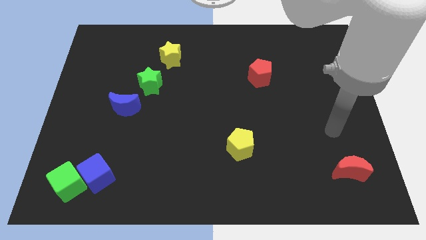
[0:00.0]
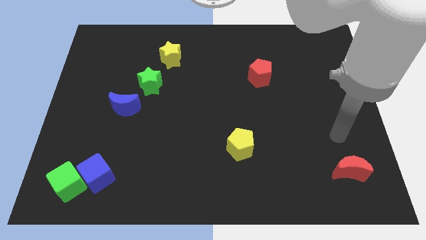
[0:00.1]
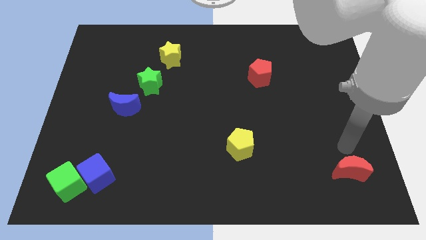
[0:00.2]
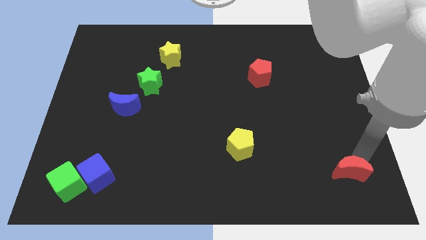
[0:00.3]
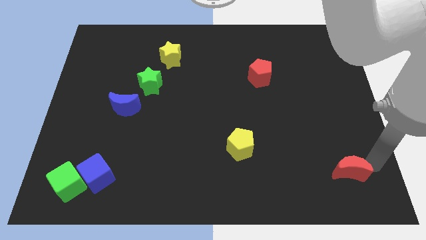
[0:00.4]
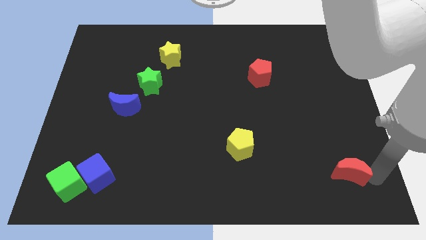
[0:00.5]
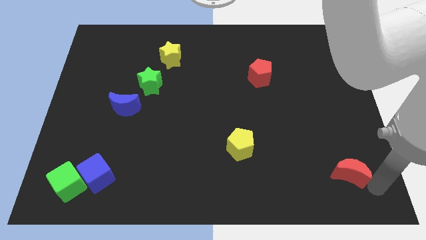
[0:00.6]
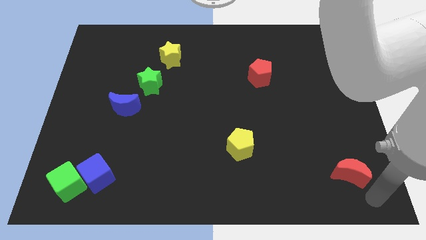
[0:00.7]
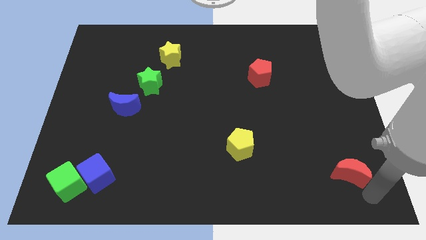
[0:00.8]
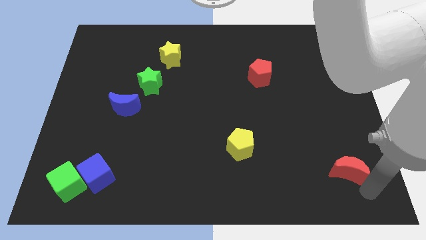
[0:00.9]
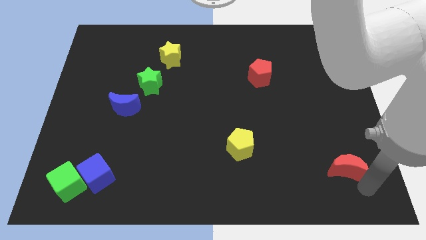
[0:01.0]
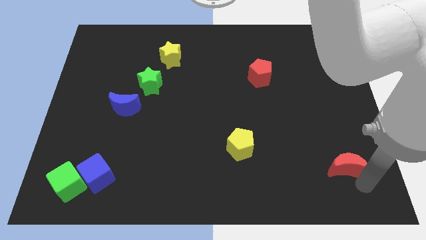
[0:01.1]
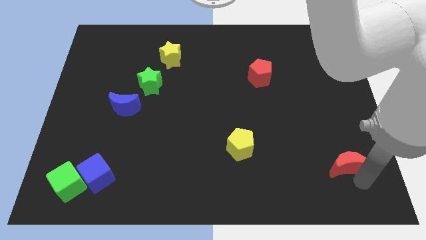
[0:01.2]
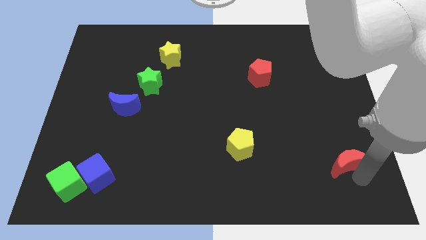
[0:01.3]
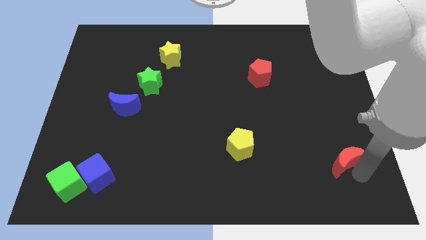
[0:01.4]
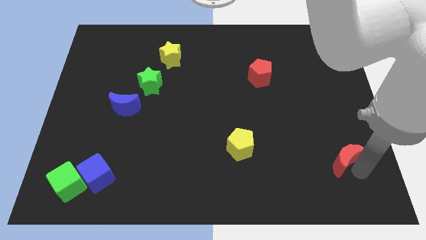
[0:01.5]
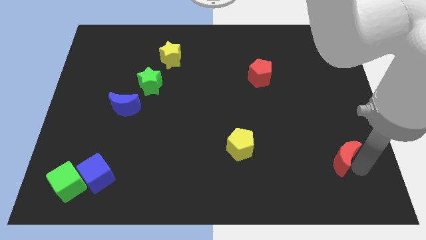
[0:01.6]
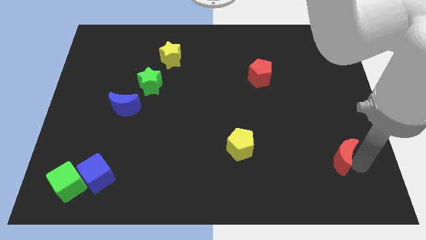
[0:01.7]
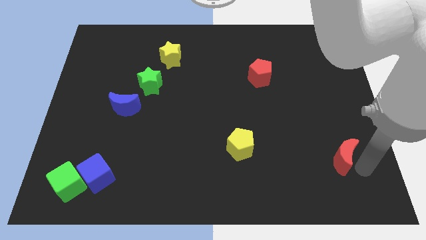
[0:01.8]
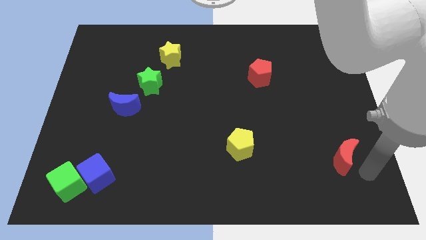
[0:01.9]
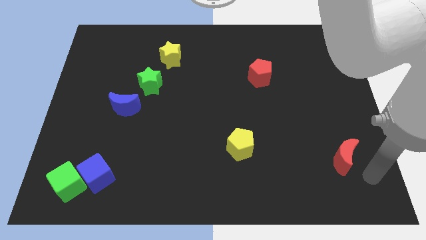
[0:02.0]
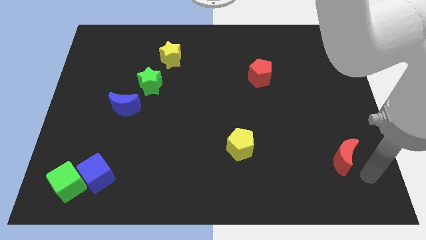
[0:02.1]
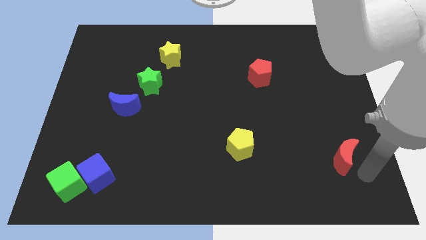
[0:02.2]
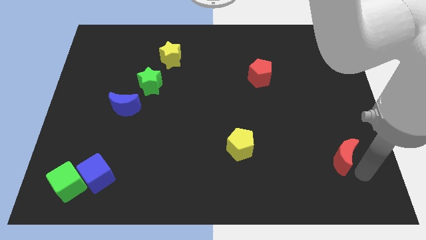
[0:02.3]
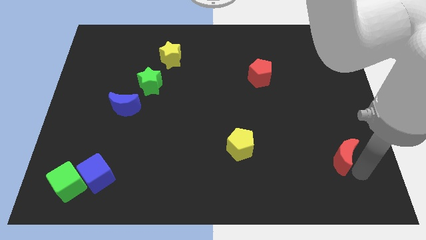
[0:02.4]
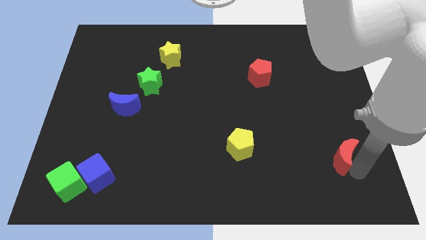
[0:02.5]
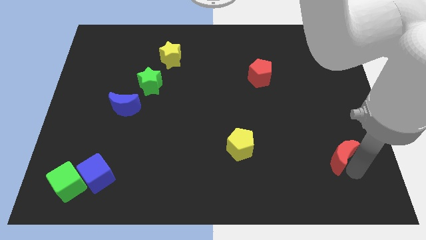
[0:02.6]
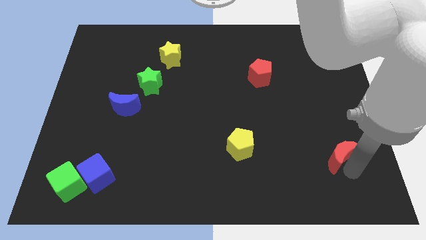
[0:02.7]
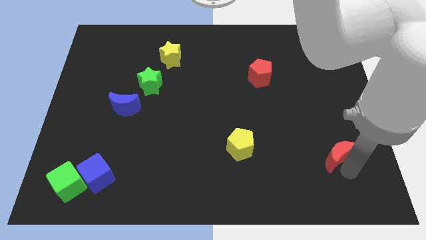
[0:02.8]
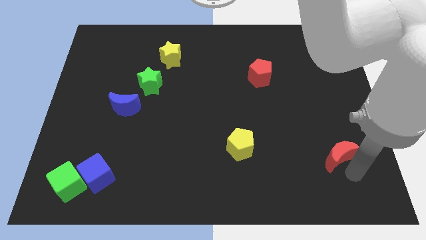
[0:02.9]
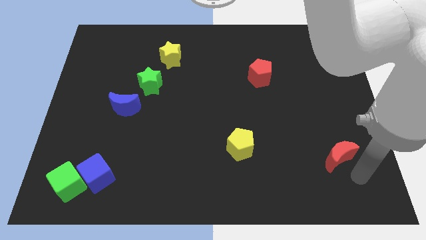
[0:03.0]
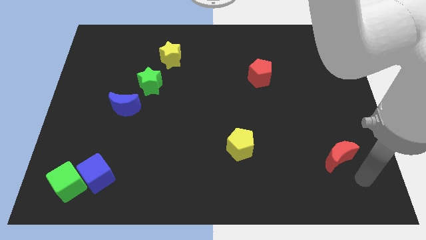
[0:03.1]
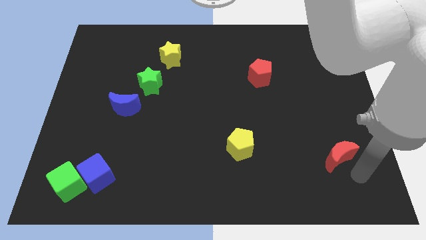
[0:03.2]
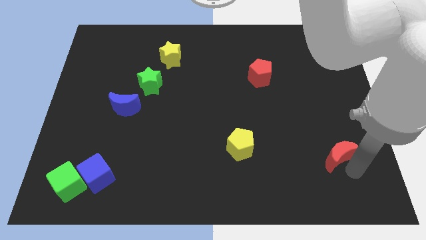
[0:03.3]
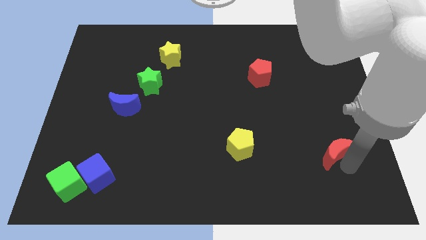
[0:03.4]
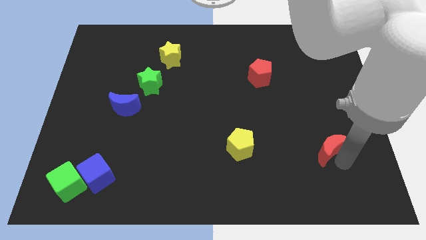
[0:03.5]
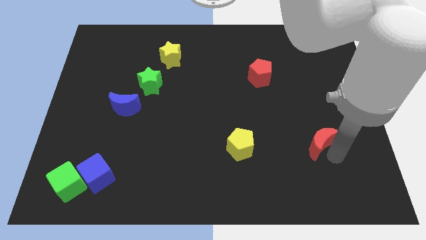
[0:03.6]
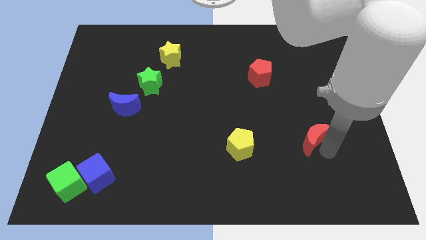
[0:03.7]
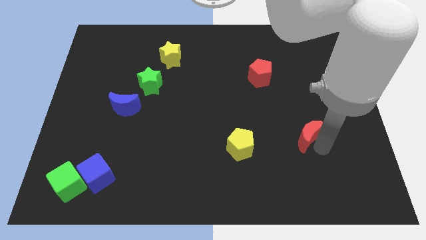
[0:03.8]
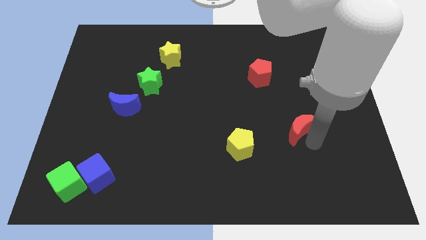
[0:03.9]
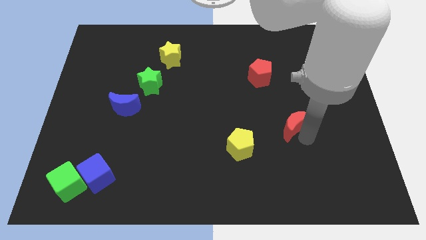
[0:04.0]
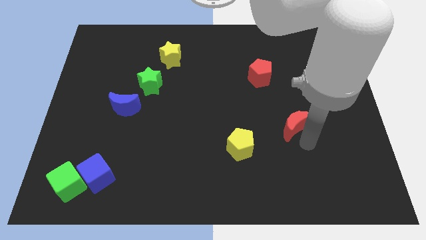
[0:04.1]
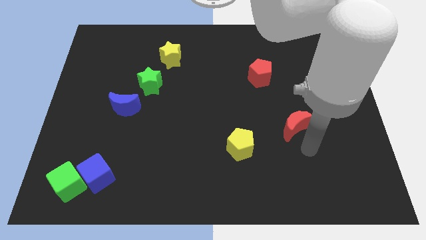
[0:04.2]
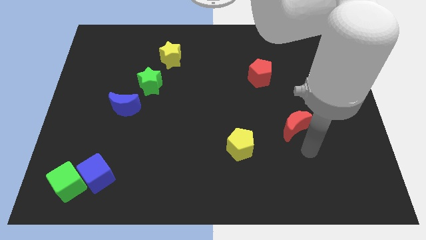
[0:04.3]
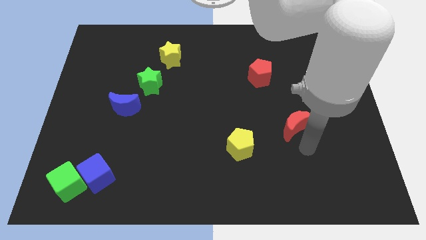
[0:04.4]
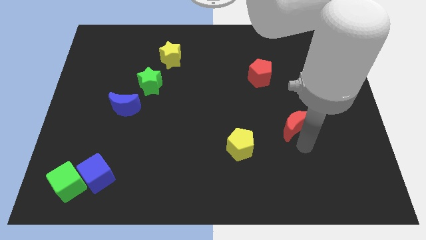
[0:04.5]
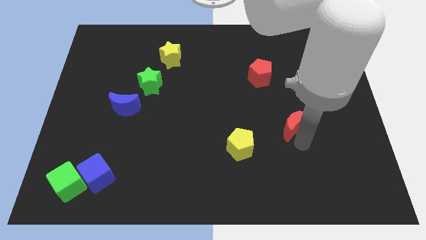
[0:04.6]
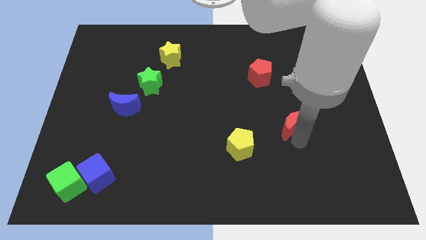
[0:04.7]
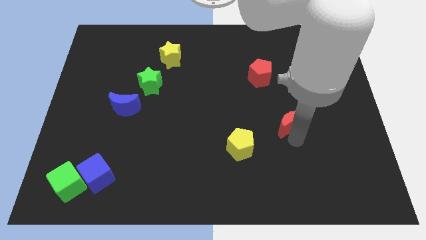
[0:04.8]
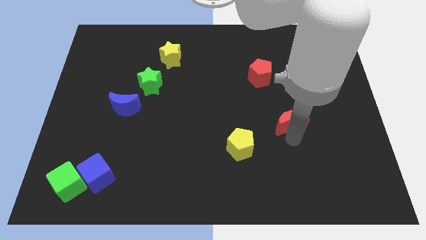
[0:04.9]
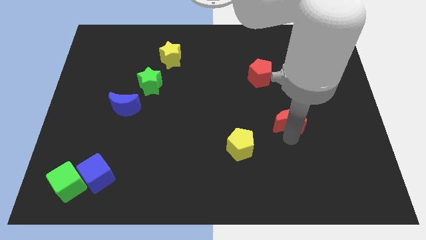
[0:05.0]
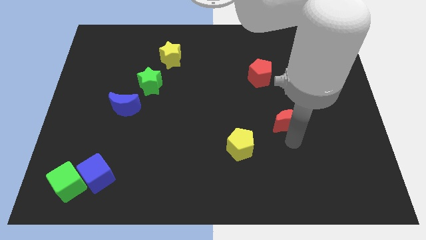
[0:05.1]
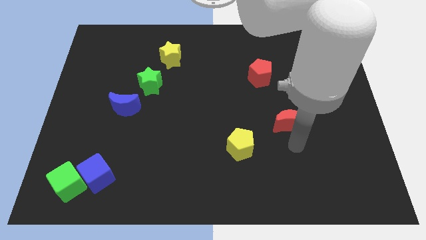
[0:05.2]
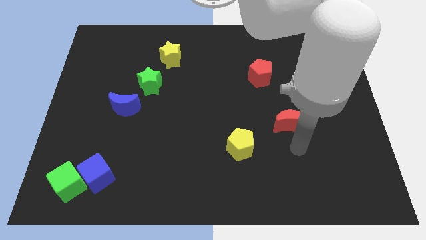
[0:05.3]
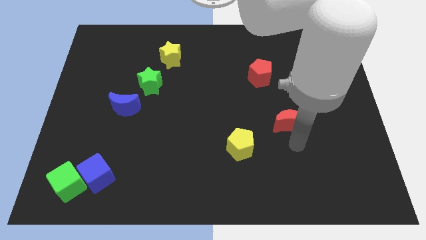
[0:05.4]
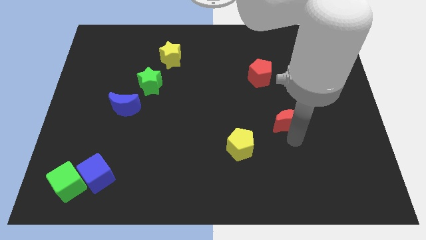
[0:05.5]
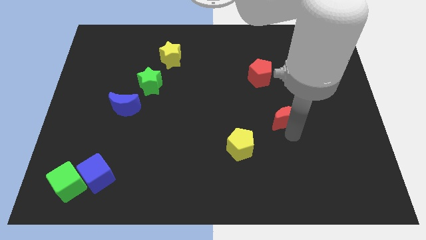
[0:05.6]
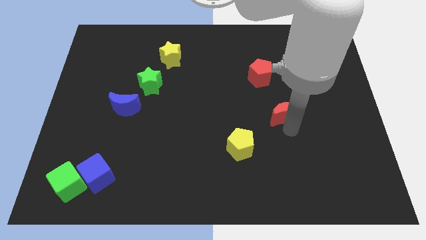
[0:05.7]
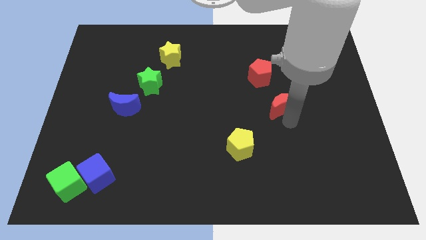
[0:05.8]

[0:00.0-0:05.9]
slide the red moon up and left diagonally

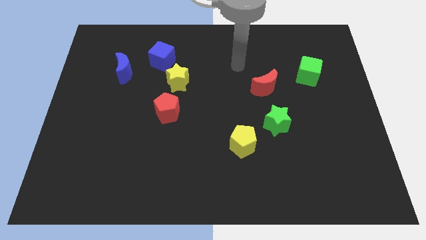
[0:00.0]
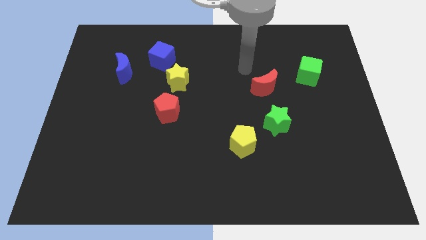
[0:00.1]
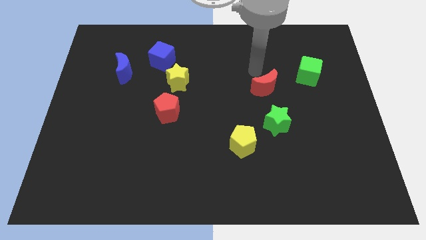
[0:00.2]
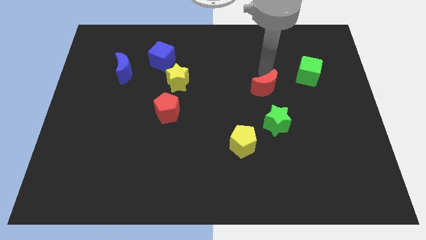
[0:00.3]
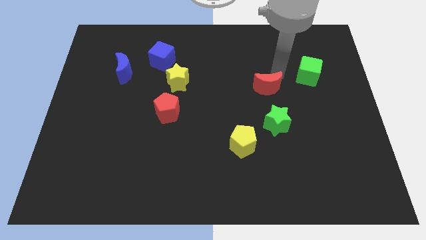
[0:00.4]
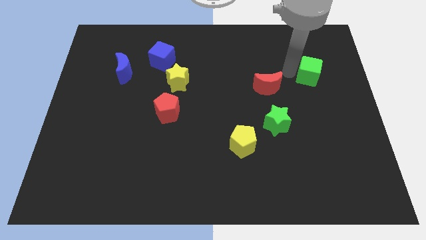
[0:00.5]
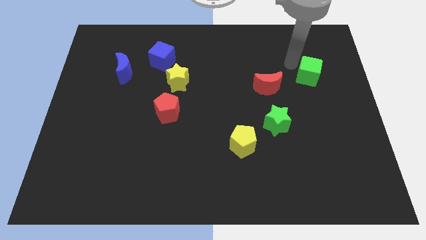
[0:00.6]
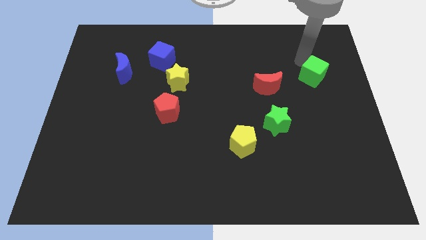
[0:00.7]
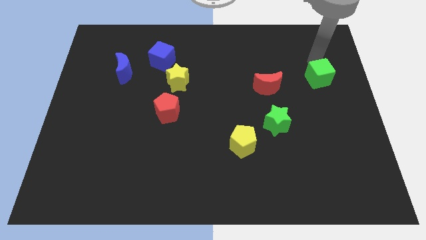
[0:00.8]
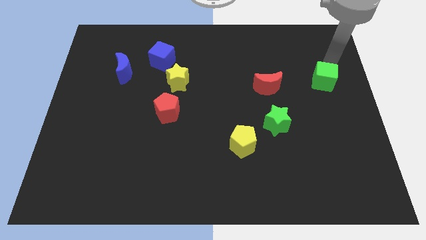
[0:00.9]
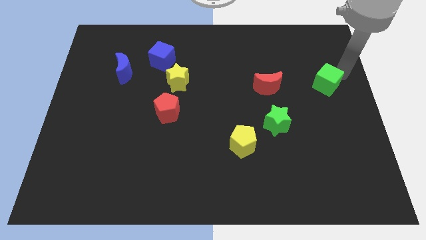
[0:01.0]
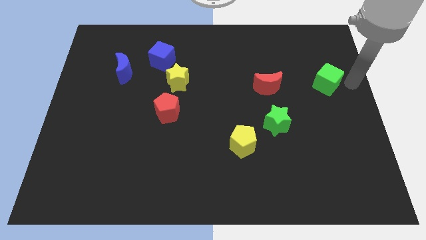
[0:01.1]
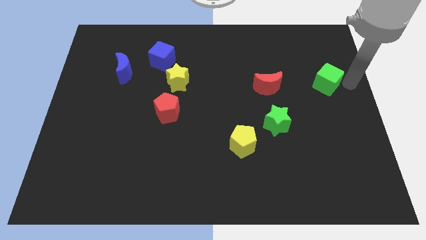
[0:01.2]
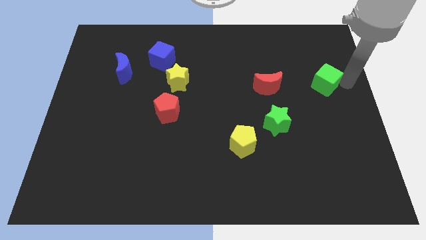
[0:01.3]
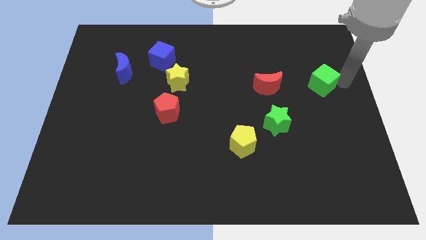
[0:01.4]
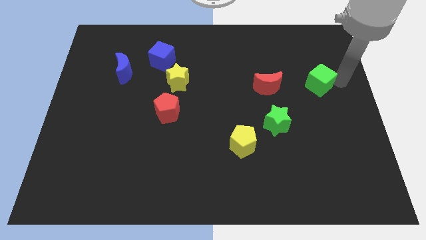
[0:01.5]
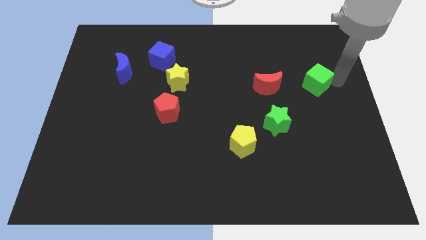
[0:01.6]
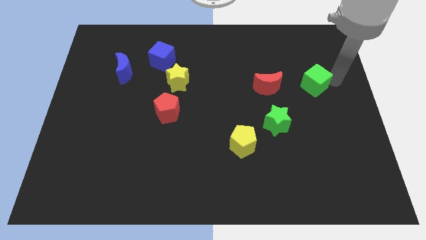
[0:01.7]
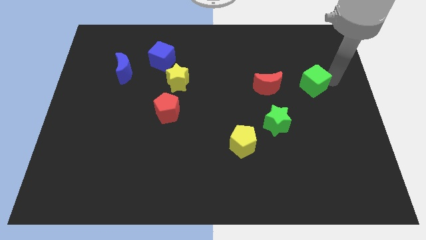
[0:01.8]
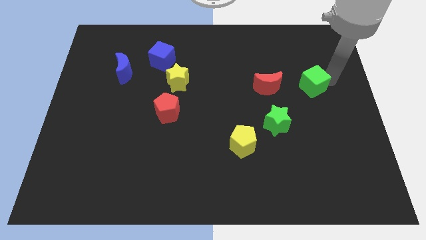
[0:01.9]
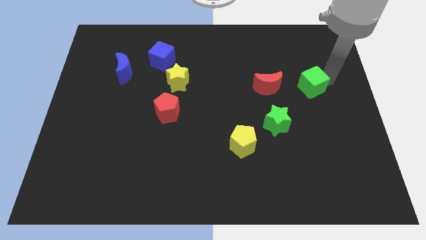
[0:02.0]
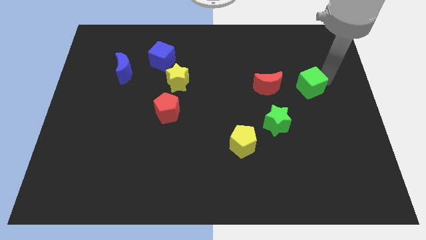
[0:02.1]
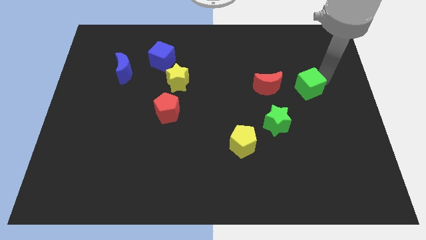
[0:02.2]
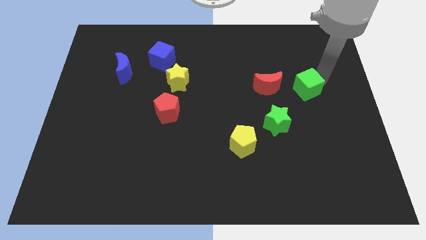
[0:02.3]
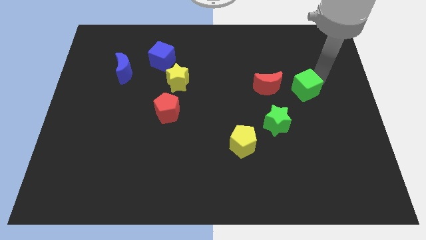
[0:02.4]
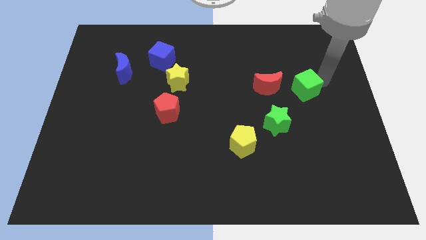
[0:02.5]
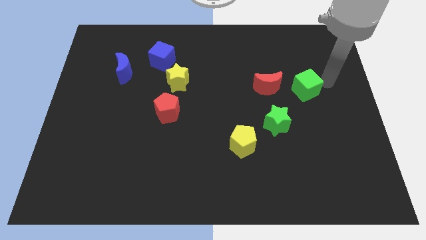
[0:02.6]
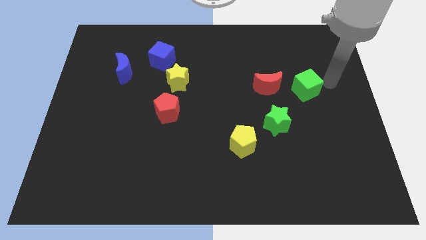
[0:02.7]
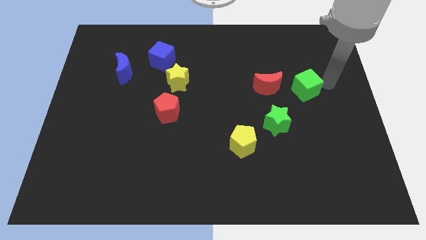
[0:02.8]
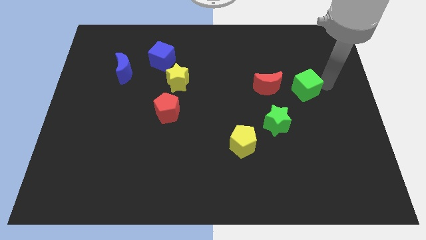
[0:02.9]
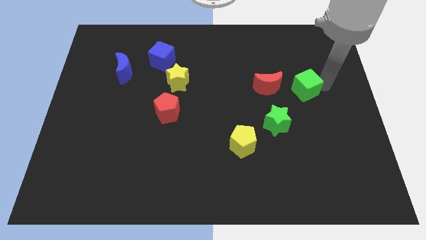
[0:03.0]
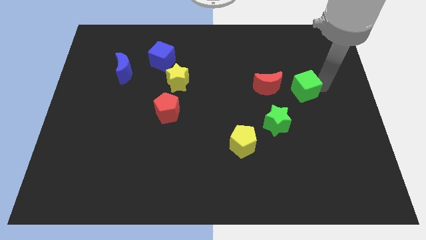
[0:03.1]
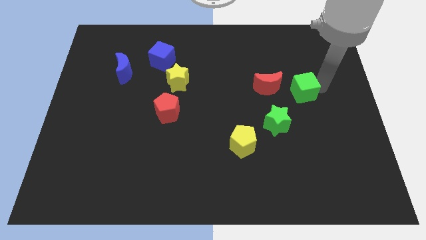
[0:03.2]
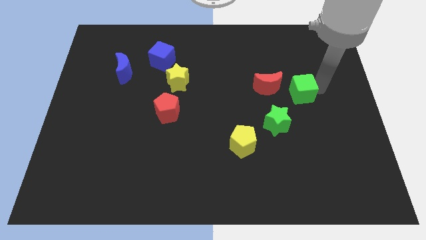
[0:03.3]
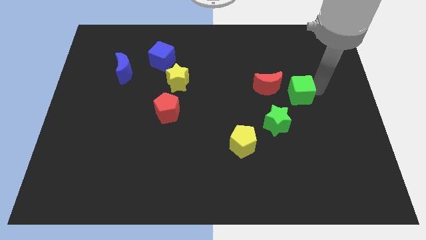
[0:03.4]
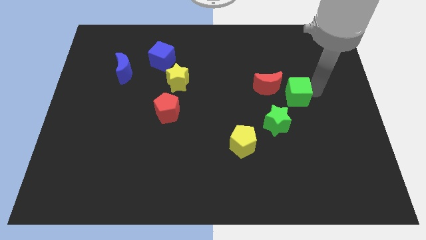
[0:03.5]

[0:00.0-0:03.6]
move the green cube down and left diagonally a little bit
